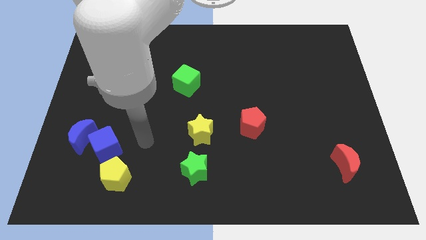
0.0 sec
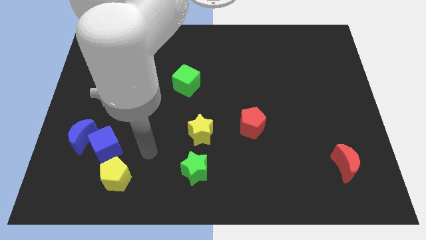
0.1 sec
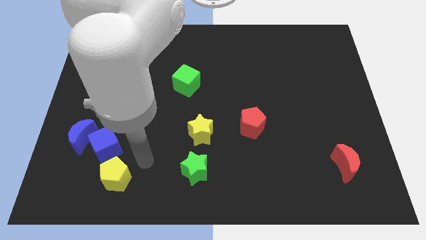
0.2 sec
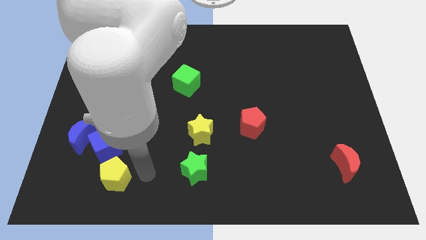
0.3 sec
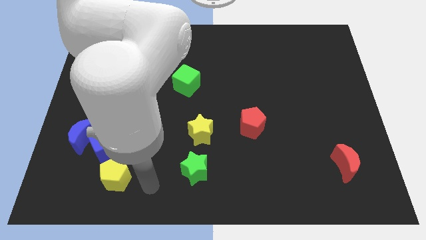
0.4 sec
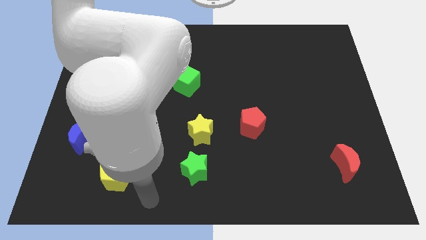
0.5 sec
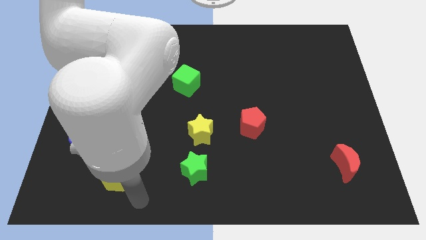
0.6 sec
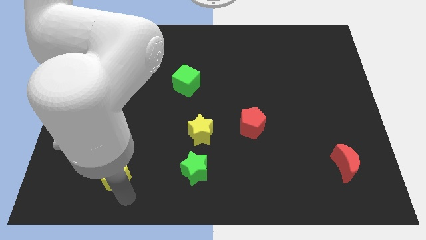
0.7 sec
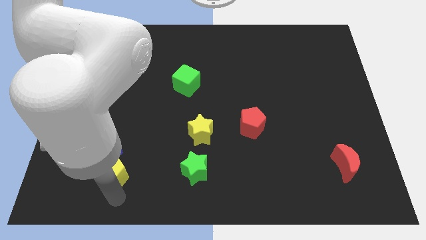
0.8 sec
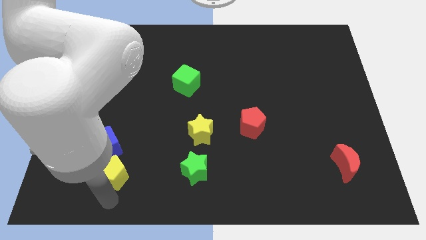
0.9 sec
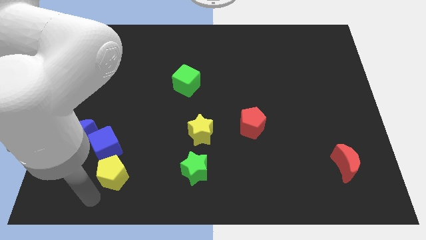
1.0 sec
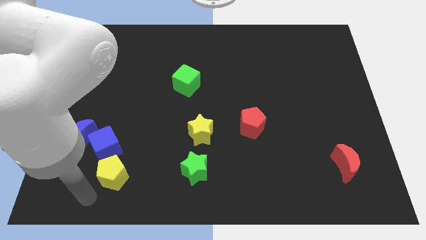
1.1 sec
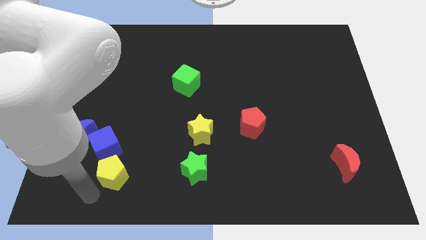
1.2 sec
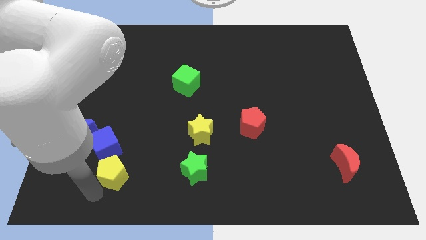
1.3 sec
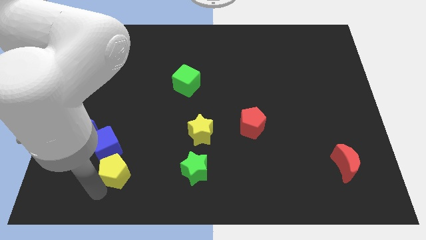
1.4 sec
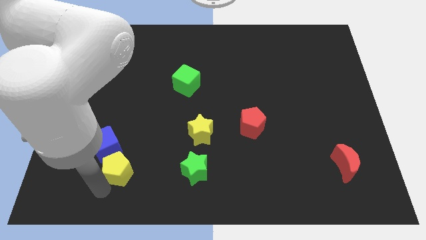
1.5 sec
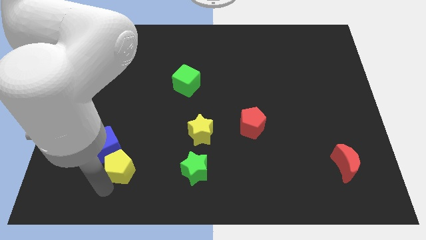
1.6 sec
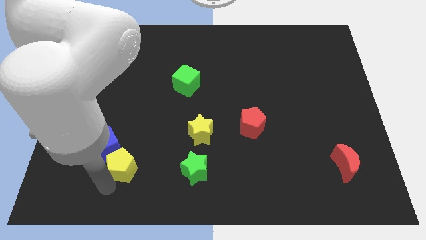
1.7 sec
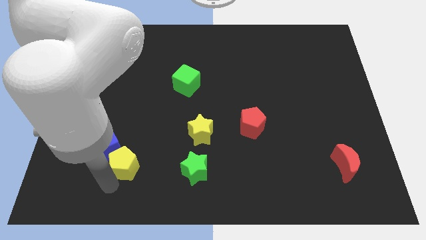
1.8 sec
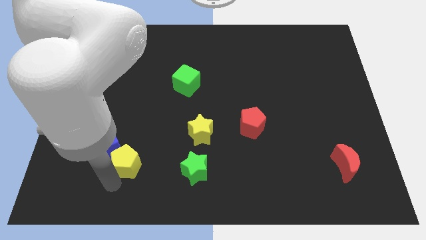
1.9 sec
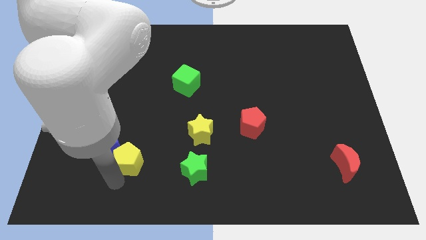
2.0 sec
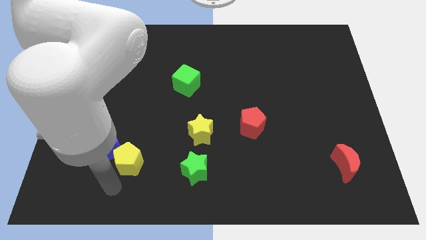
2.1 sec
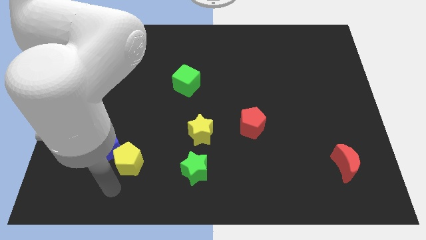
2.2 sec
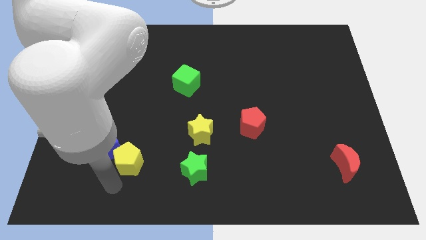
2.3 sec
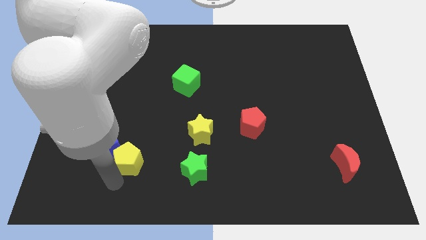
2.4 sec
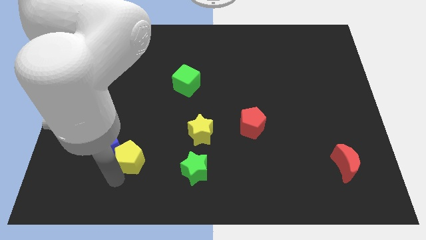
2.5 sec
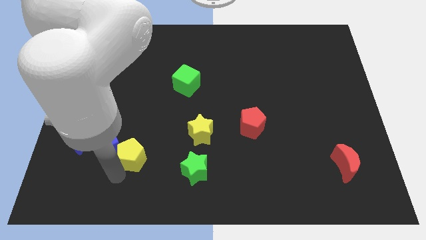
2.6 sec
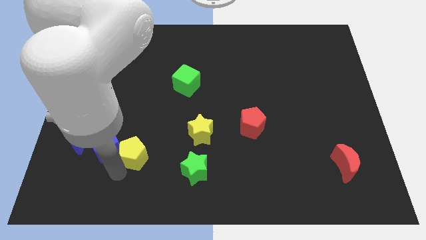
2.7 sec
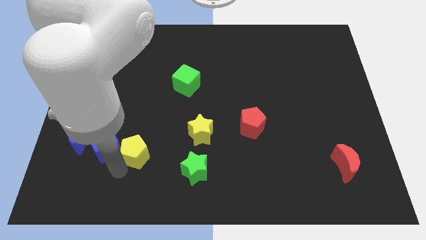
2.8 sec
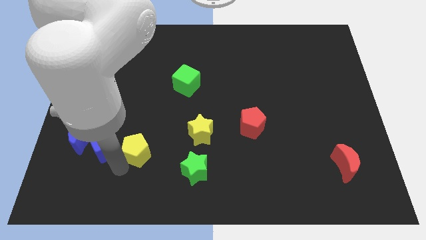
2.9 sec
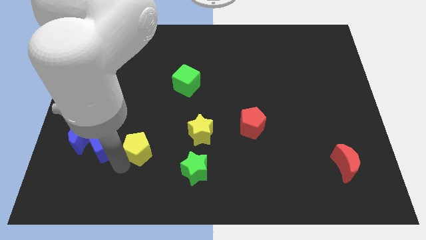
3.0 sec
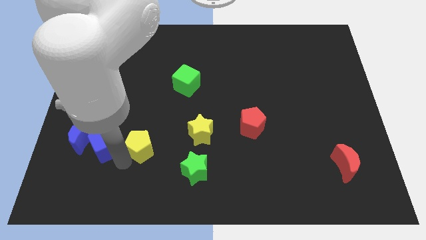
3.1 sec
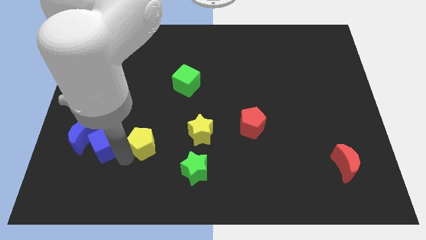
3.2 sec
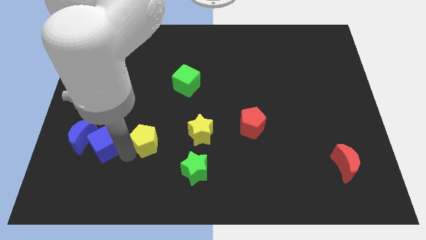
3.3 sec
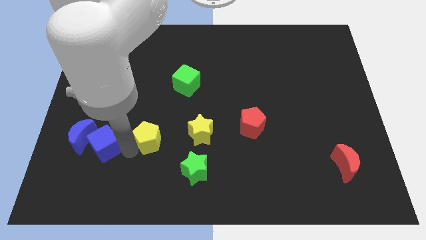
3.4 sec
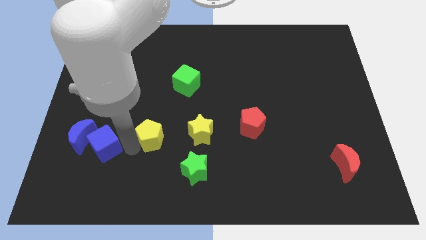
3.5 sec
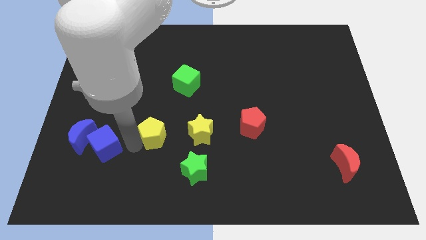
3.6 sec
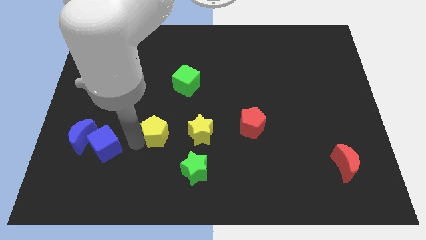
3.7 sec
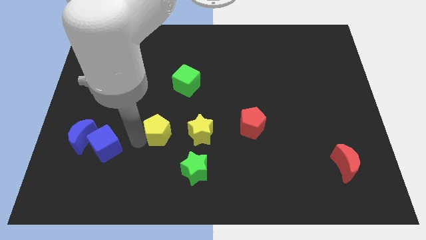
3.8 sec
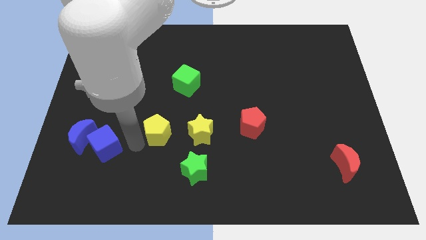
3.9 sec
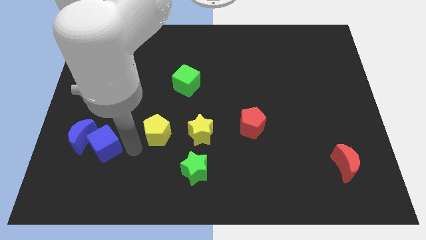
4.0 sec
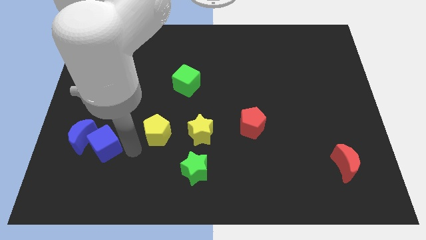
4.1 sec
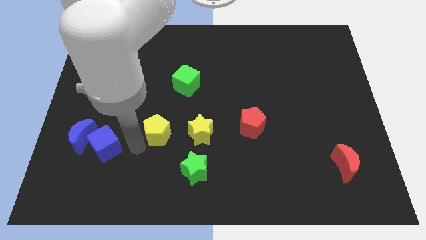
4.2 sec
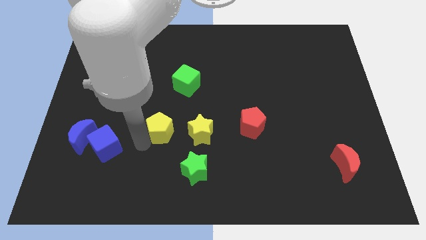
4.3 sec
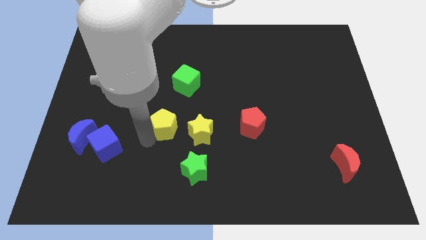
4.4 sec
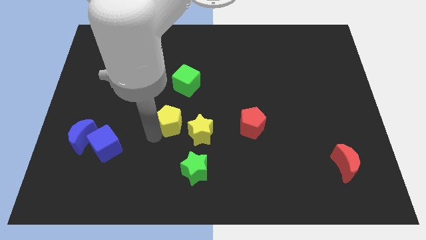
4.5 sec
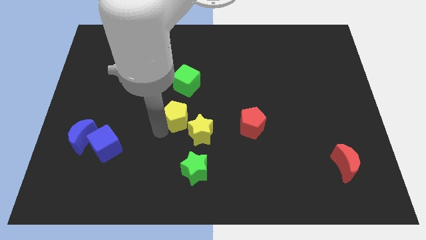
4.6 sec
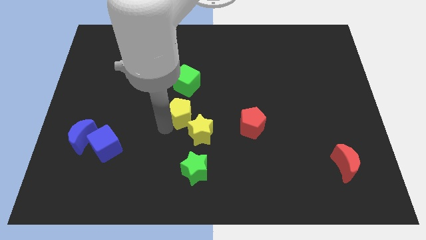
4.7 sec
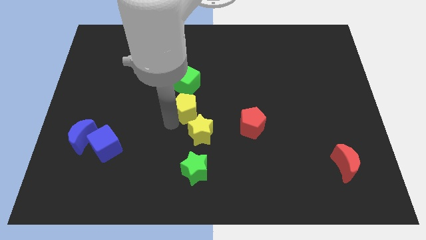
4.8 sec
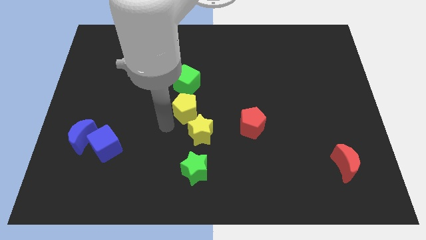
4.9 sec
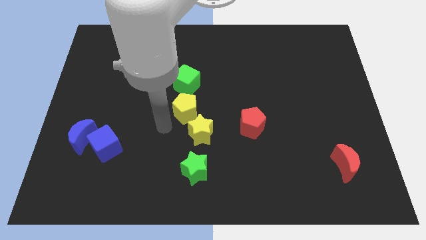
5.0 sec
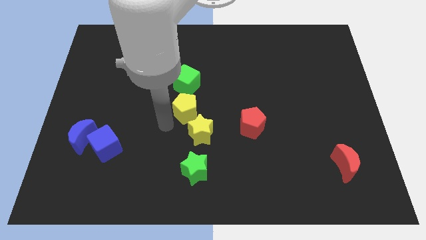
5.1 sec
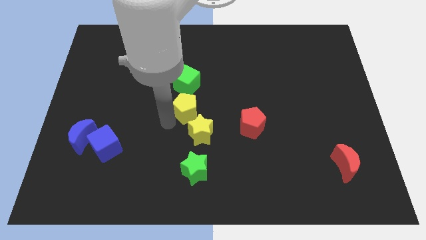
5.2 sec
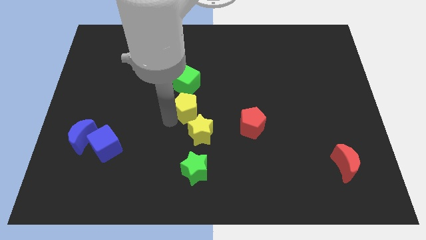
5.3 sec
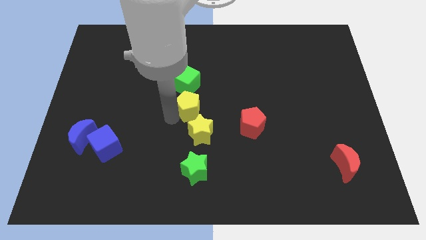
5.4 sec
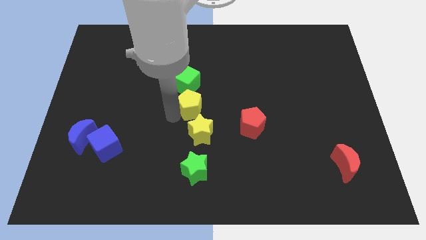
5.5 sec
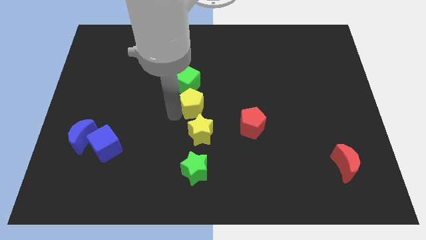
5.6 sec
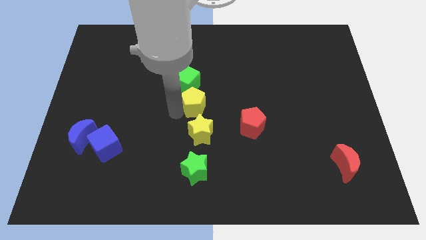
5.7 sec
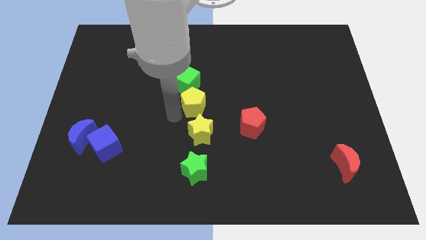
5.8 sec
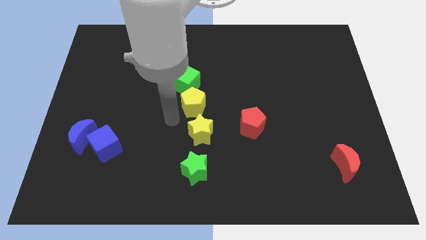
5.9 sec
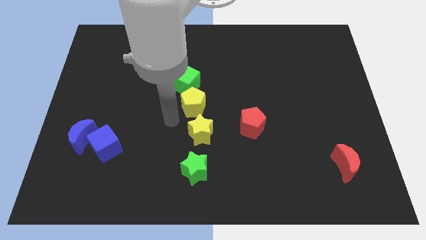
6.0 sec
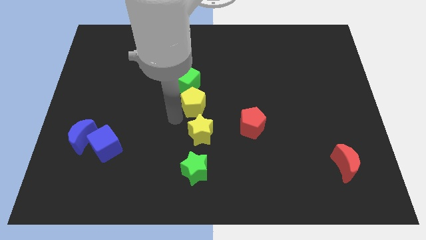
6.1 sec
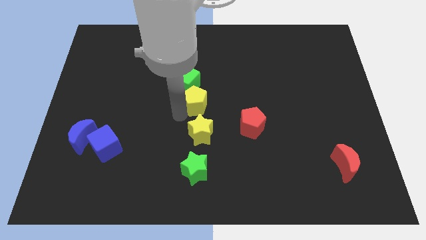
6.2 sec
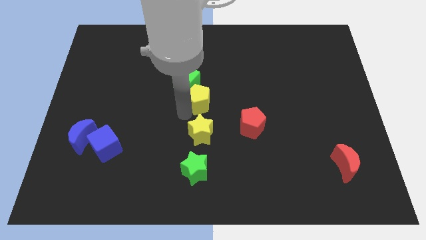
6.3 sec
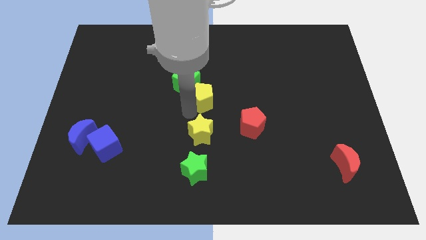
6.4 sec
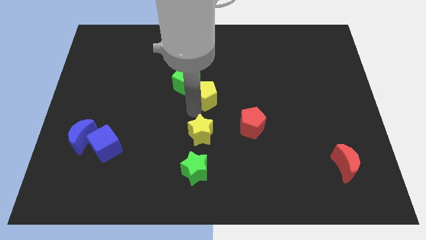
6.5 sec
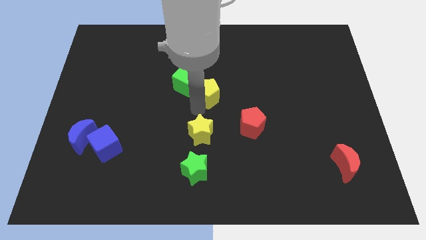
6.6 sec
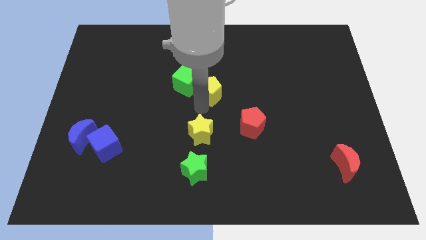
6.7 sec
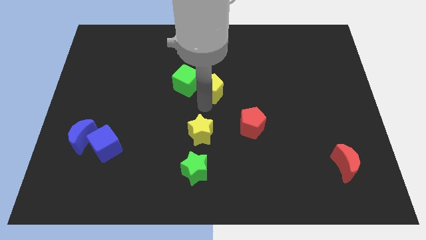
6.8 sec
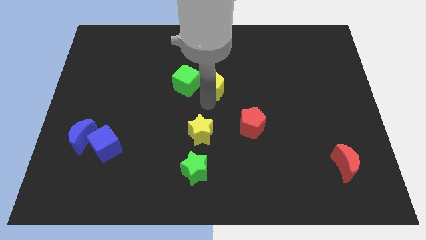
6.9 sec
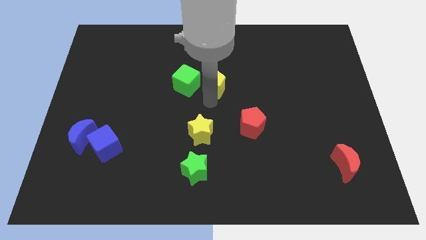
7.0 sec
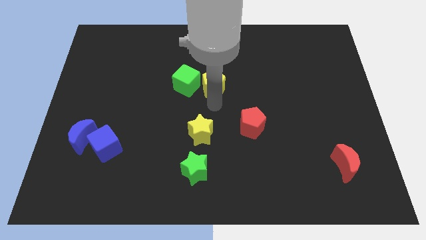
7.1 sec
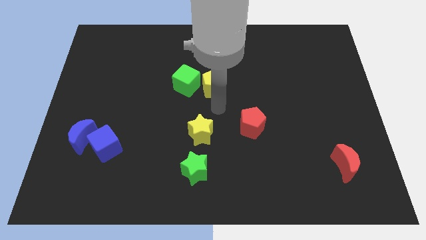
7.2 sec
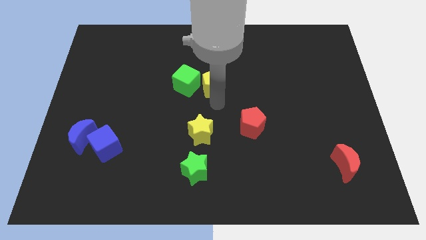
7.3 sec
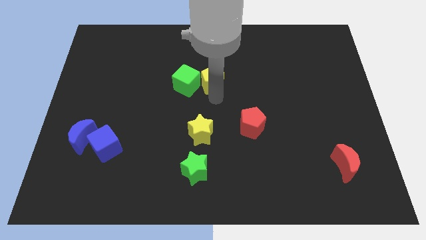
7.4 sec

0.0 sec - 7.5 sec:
put the yellow pentagon to the top right side of the green cube
